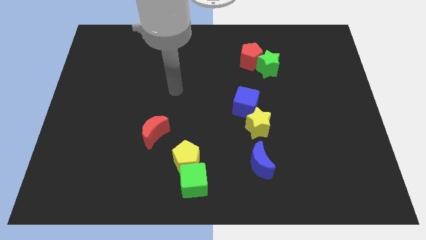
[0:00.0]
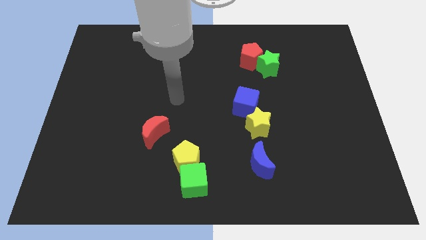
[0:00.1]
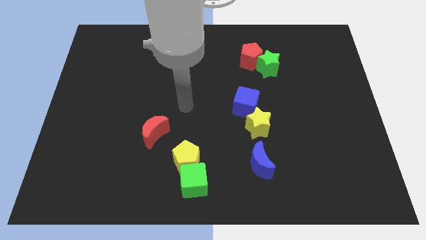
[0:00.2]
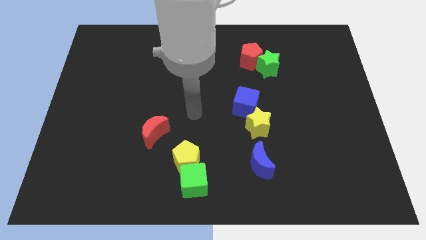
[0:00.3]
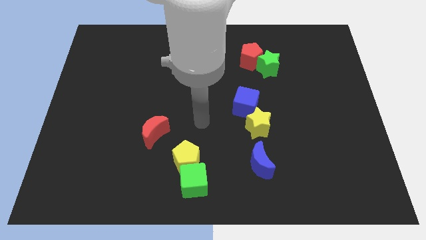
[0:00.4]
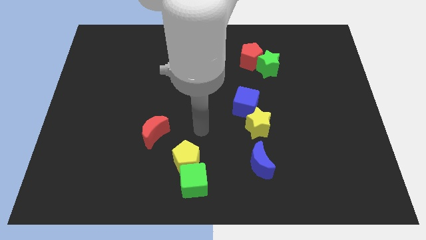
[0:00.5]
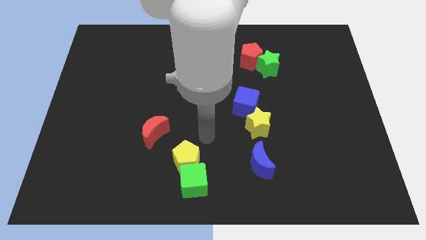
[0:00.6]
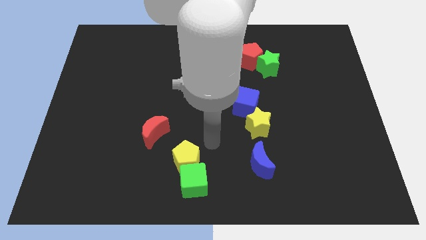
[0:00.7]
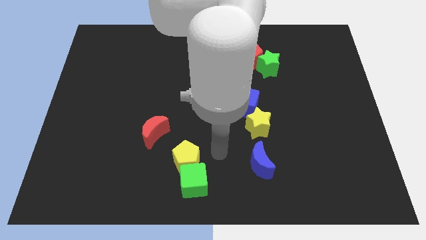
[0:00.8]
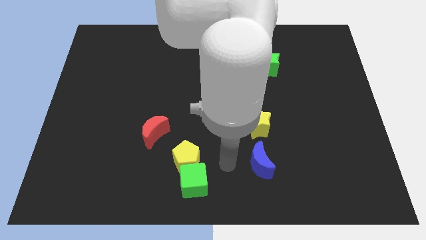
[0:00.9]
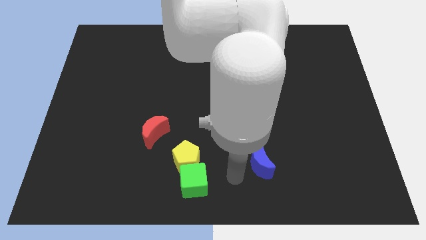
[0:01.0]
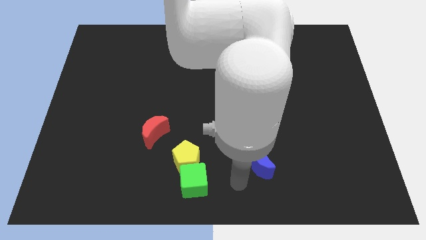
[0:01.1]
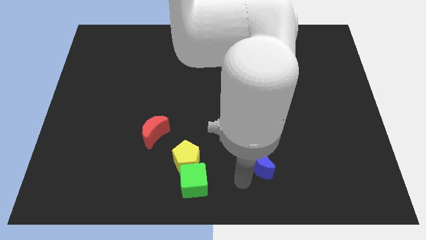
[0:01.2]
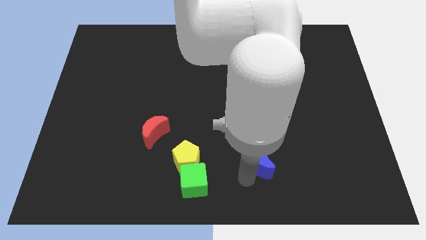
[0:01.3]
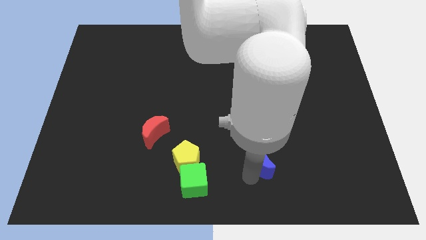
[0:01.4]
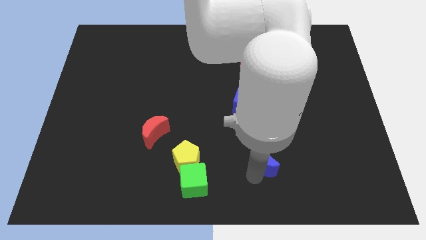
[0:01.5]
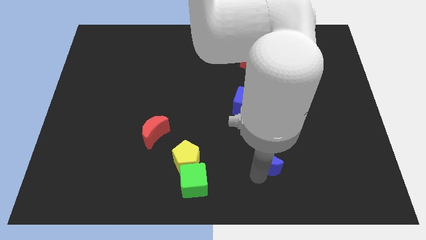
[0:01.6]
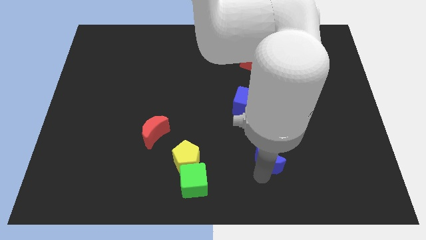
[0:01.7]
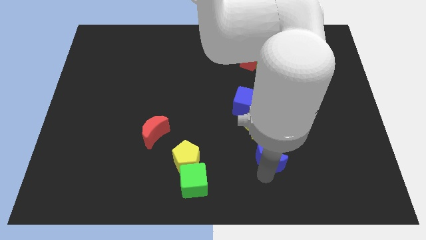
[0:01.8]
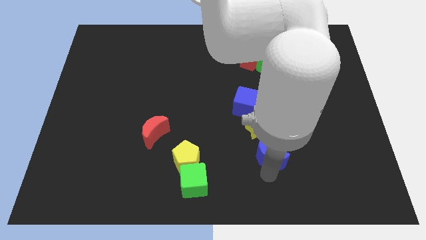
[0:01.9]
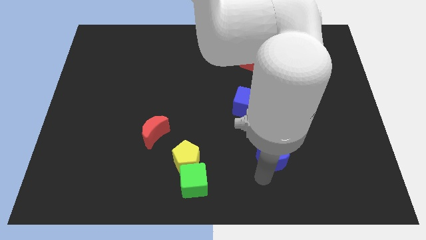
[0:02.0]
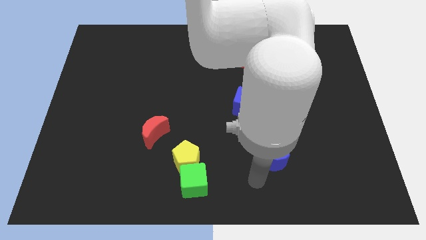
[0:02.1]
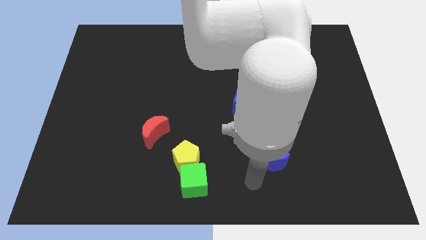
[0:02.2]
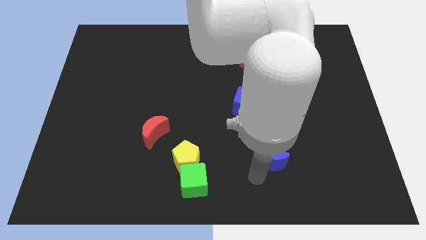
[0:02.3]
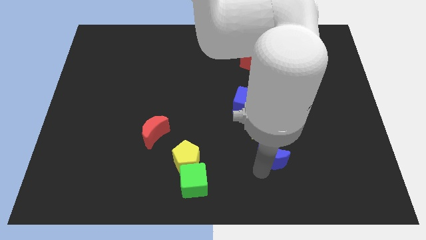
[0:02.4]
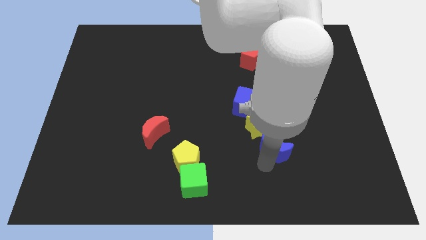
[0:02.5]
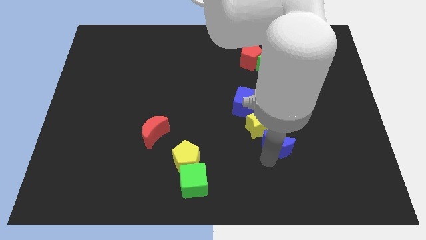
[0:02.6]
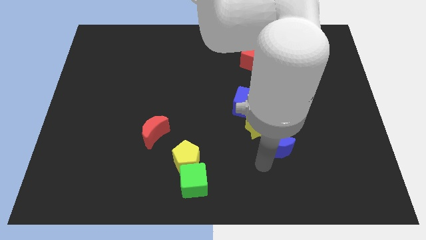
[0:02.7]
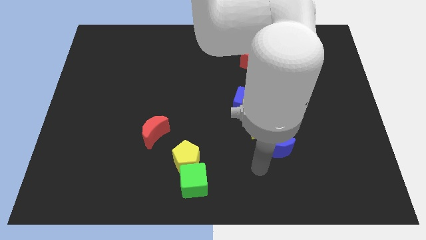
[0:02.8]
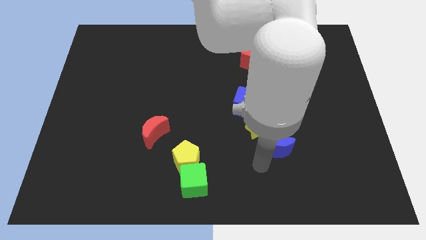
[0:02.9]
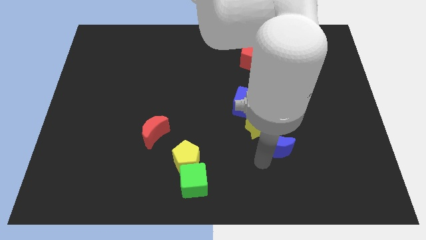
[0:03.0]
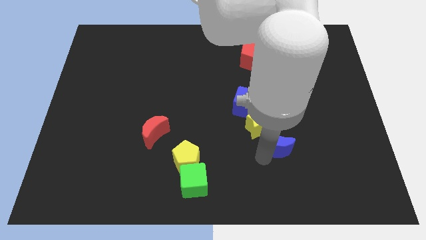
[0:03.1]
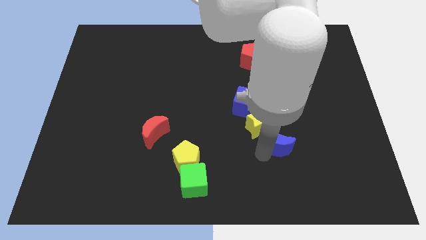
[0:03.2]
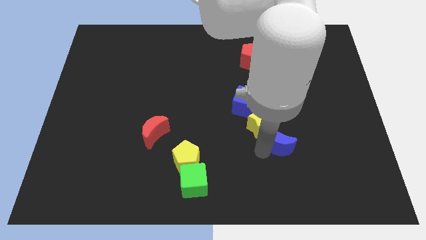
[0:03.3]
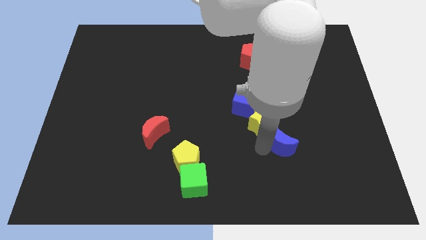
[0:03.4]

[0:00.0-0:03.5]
push the blue moon a little upwards and to the right

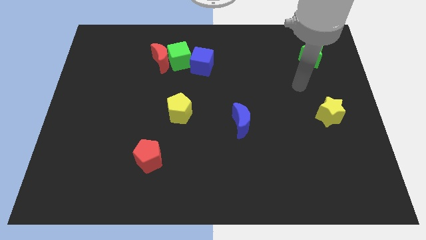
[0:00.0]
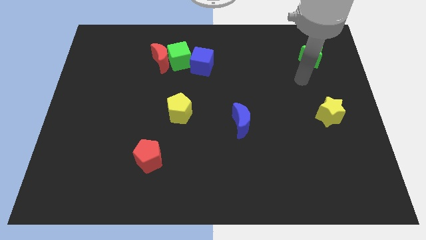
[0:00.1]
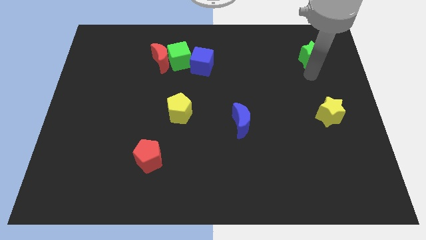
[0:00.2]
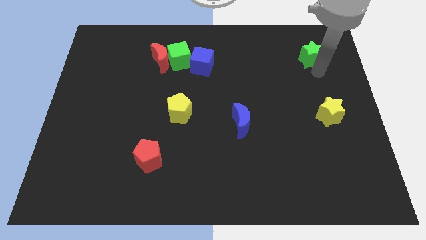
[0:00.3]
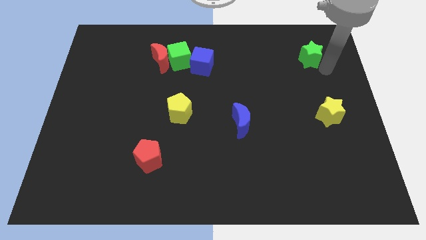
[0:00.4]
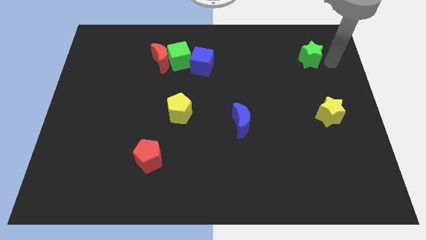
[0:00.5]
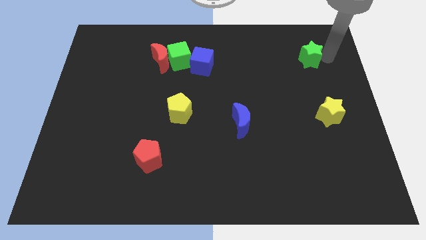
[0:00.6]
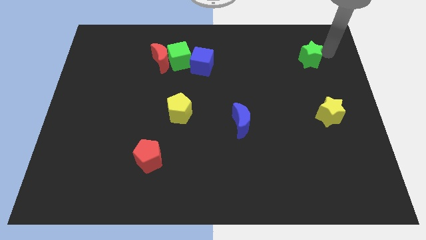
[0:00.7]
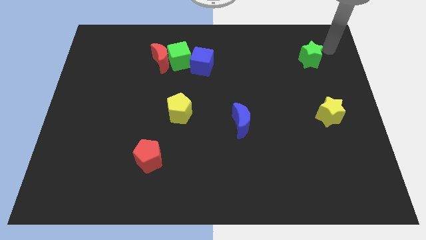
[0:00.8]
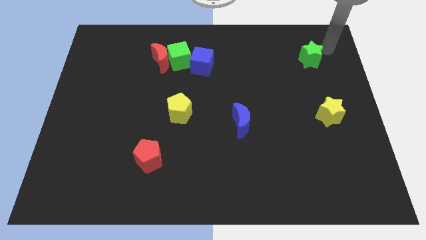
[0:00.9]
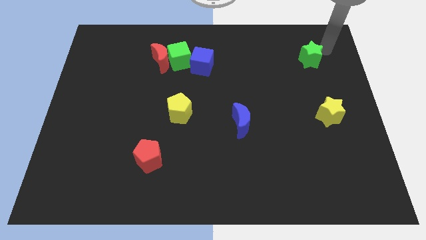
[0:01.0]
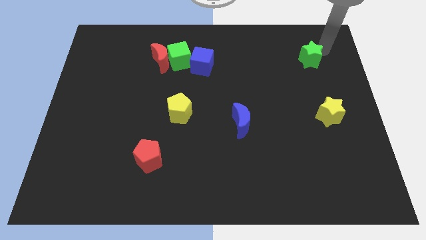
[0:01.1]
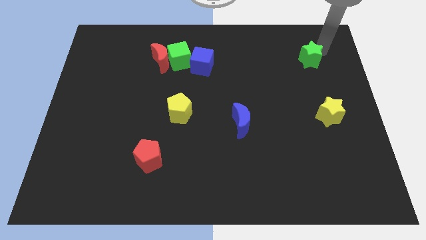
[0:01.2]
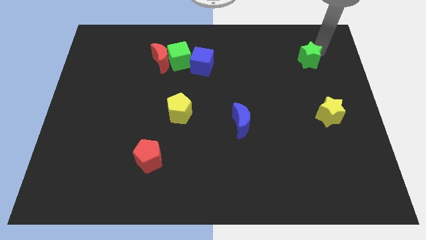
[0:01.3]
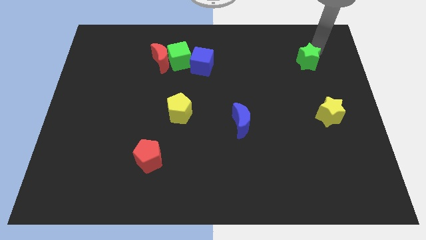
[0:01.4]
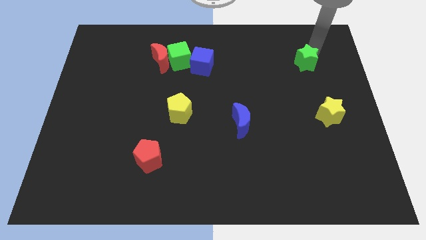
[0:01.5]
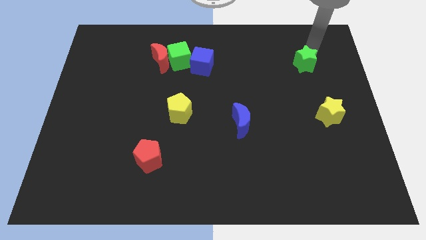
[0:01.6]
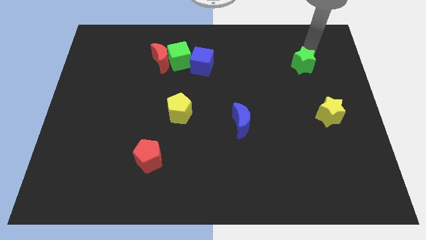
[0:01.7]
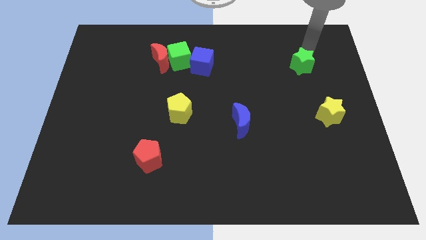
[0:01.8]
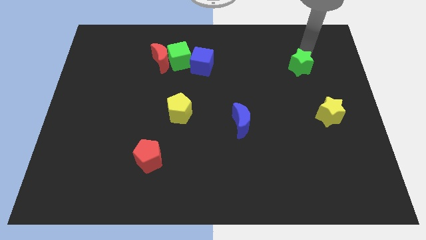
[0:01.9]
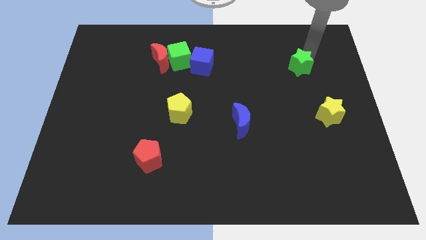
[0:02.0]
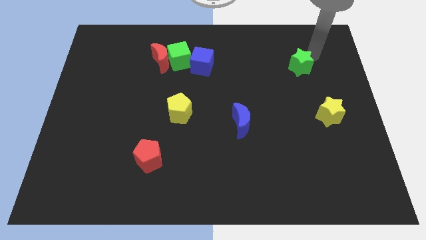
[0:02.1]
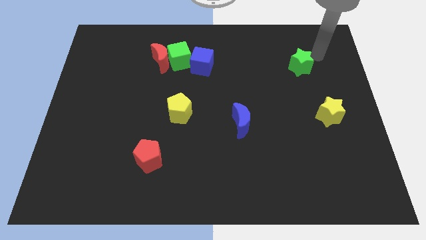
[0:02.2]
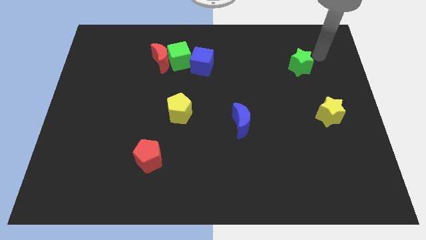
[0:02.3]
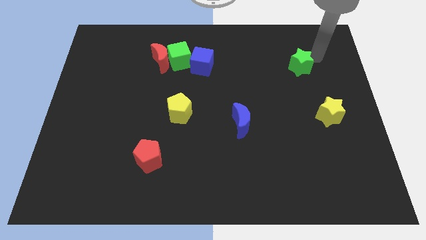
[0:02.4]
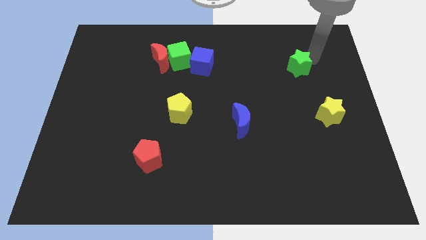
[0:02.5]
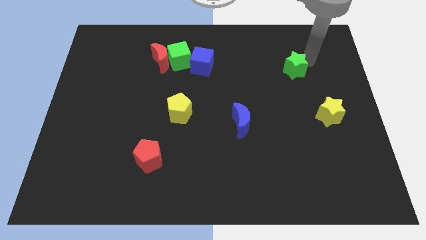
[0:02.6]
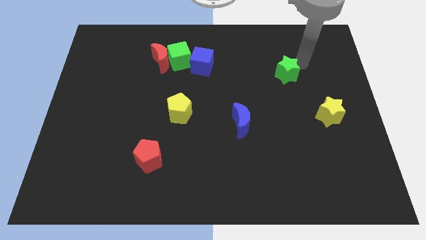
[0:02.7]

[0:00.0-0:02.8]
move the green star a little bit down and left diagonally

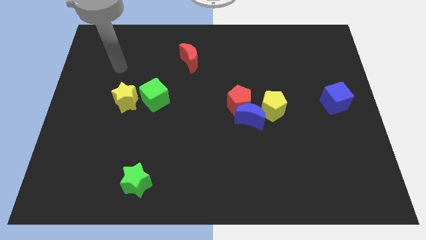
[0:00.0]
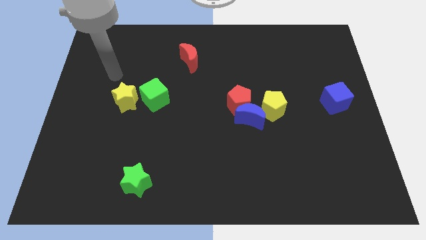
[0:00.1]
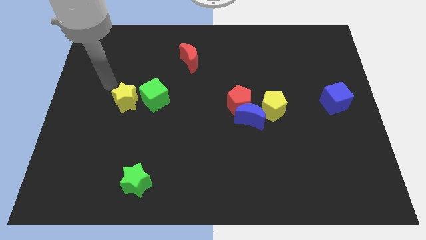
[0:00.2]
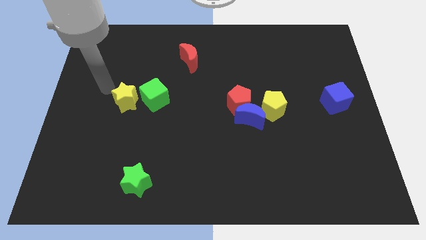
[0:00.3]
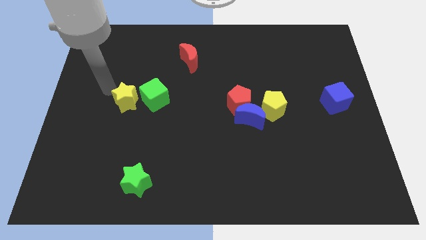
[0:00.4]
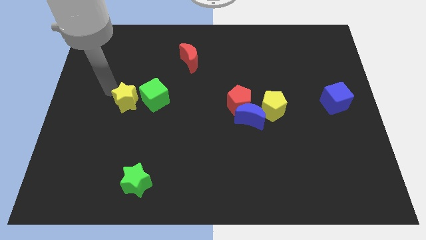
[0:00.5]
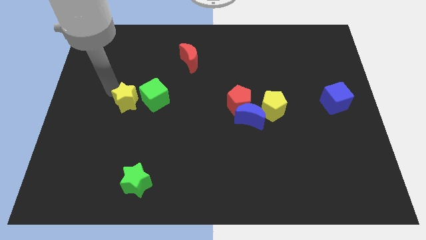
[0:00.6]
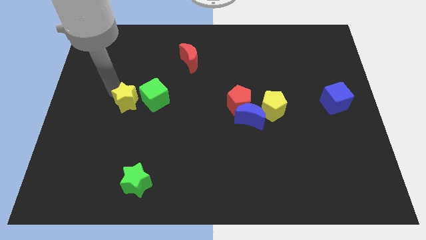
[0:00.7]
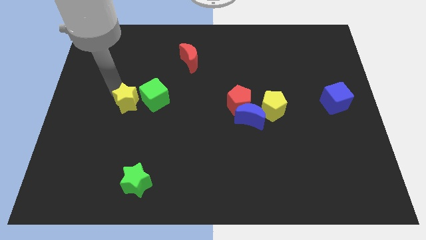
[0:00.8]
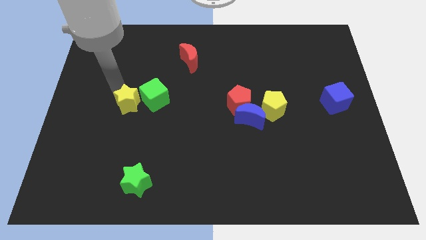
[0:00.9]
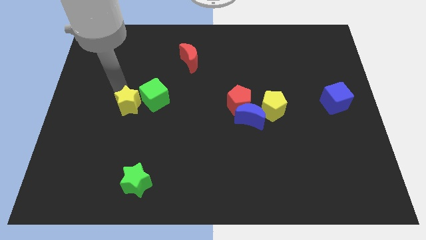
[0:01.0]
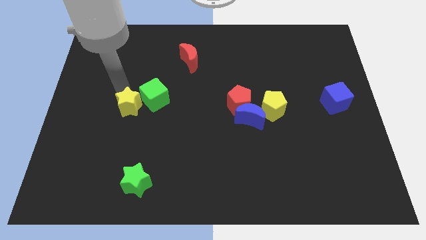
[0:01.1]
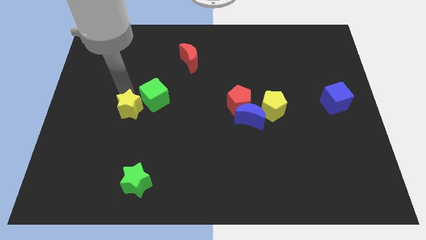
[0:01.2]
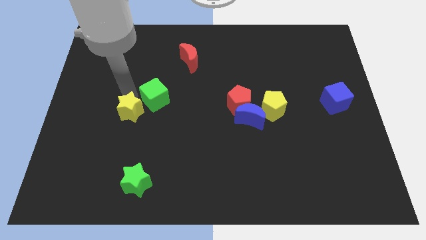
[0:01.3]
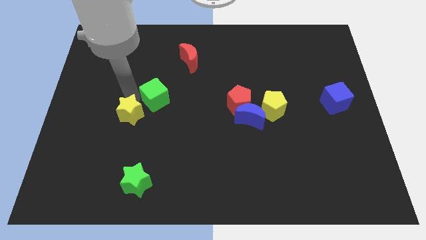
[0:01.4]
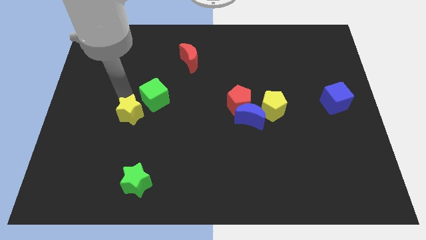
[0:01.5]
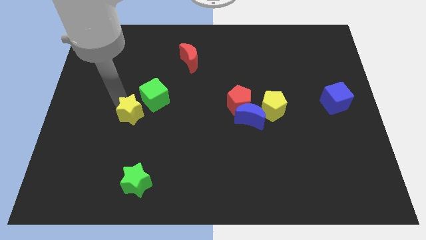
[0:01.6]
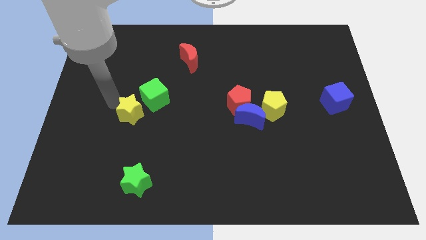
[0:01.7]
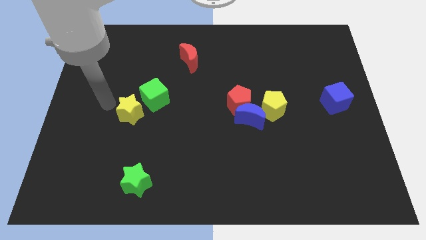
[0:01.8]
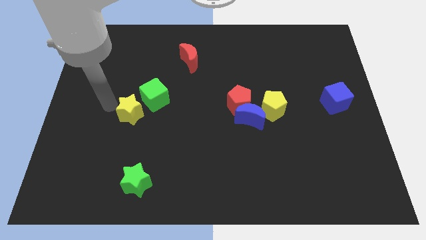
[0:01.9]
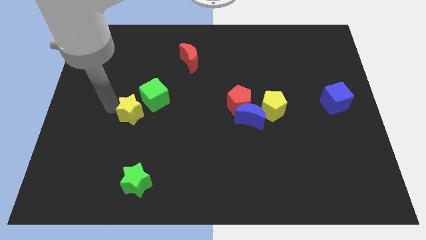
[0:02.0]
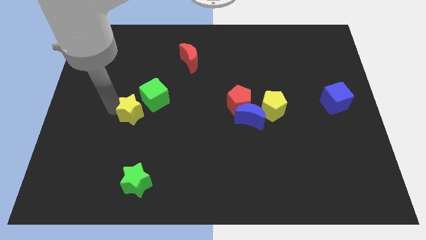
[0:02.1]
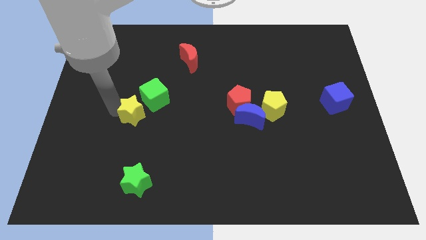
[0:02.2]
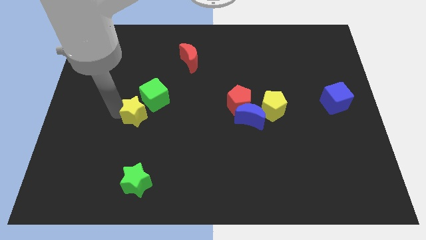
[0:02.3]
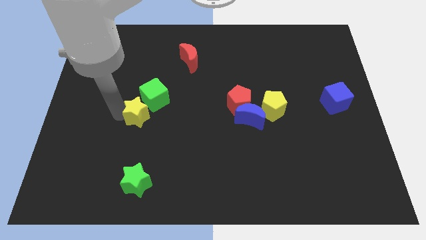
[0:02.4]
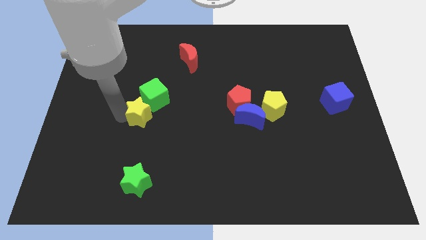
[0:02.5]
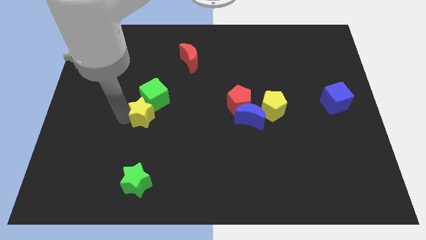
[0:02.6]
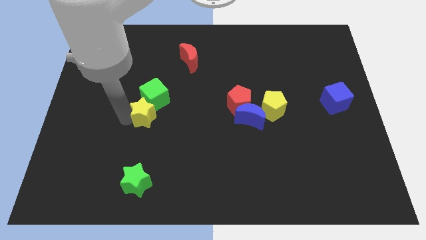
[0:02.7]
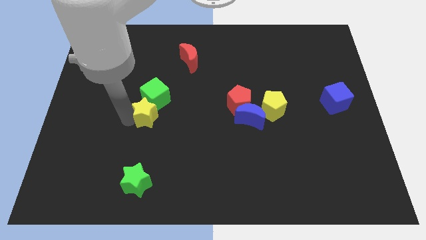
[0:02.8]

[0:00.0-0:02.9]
slightly move the yellow star down and to the right diagonally
